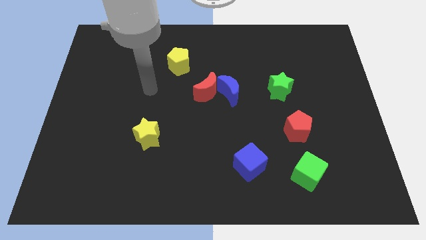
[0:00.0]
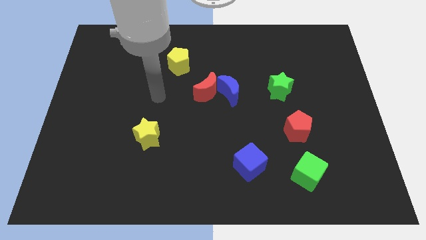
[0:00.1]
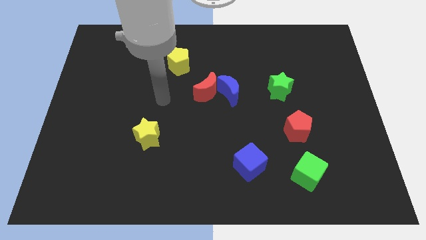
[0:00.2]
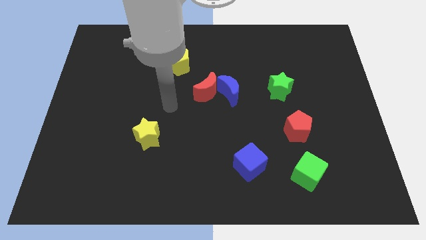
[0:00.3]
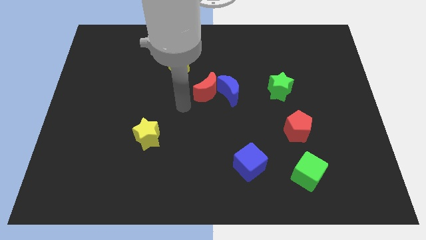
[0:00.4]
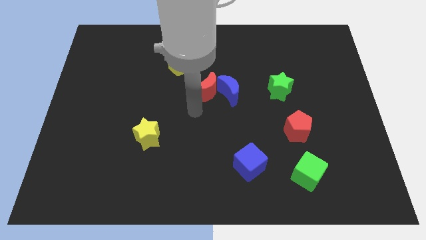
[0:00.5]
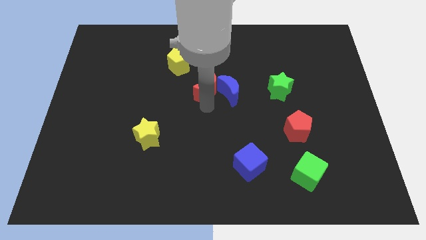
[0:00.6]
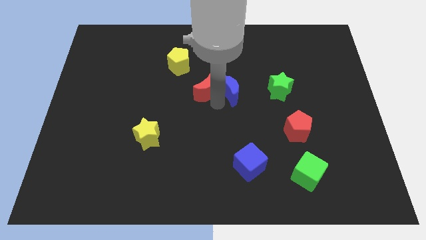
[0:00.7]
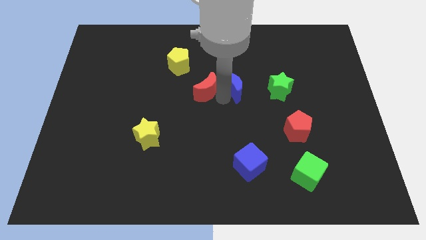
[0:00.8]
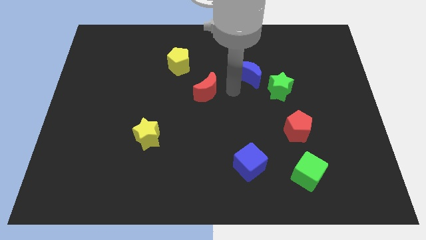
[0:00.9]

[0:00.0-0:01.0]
pull the red moon apart from the blue moon

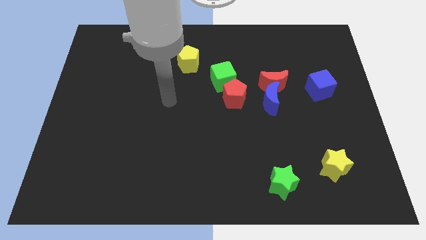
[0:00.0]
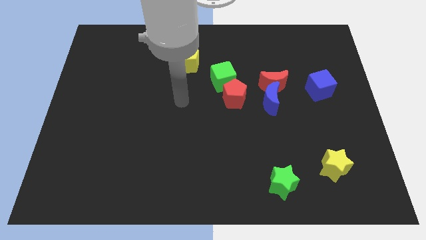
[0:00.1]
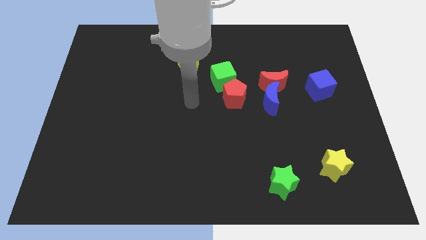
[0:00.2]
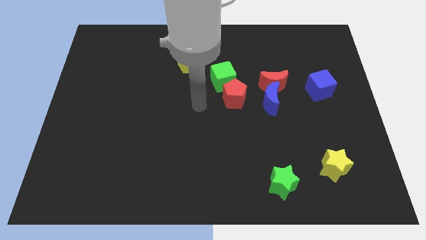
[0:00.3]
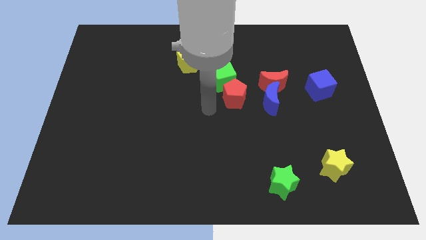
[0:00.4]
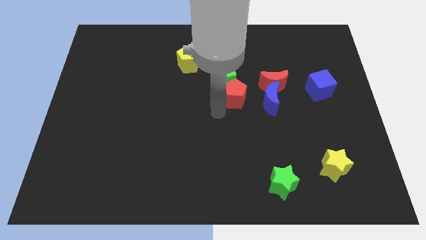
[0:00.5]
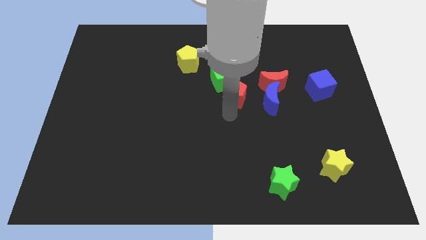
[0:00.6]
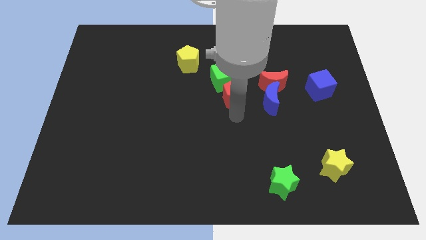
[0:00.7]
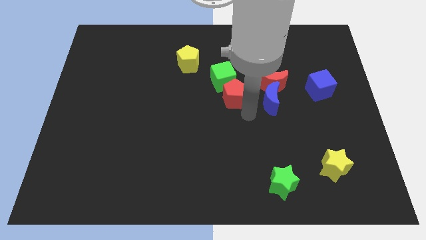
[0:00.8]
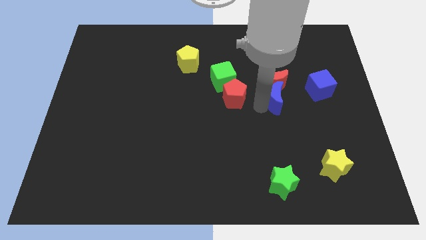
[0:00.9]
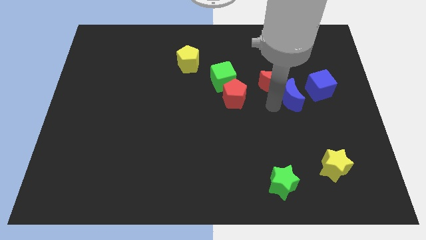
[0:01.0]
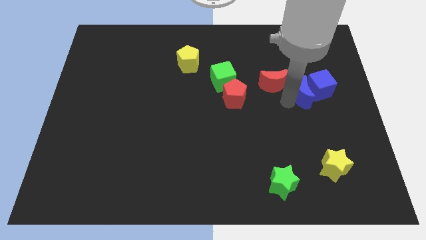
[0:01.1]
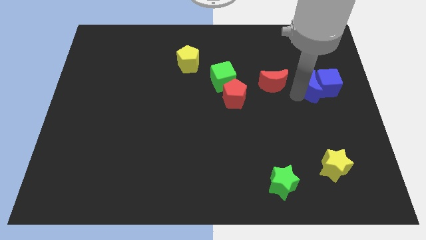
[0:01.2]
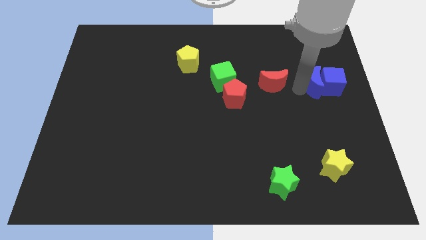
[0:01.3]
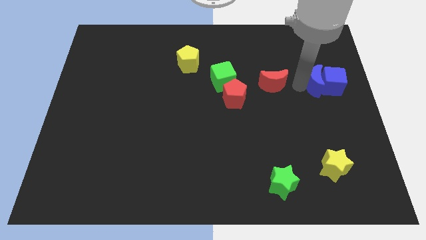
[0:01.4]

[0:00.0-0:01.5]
separate the red moon from the blue moon

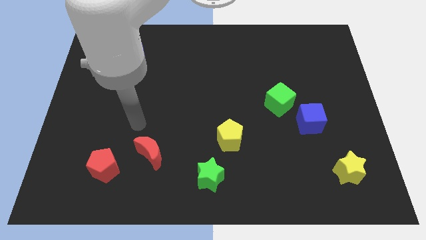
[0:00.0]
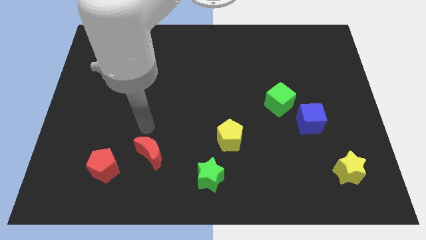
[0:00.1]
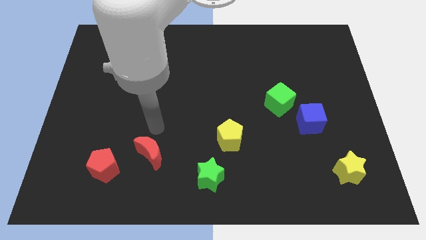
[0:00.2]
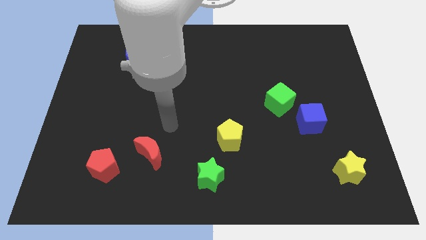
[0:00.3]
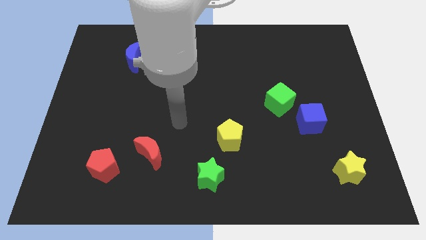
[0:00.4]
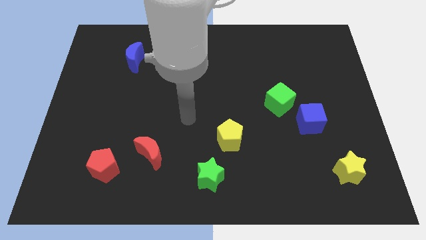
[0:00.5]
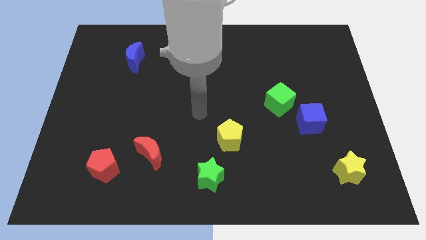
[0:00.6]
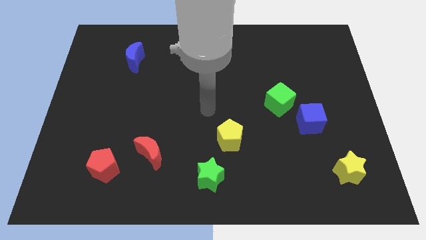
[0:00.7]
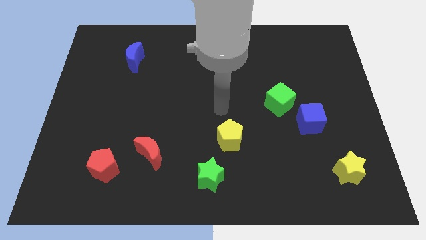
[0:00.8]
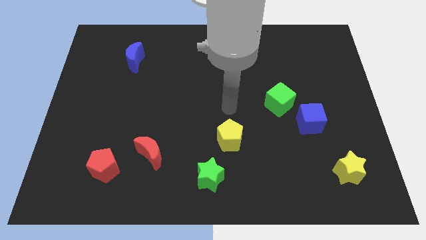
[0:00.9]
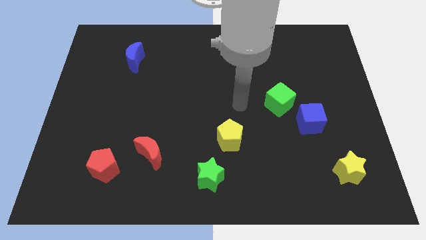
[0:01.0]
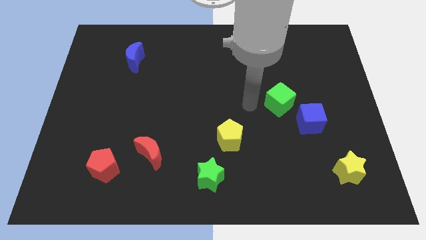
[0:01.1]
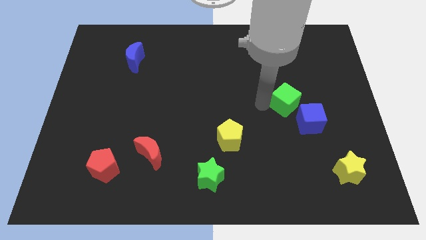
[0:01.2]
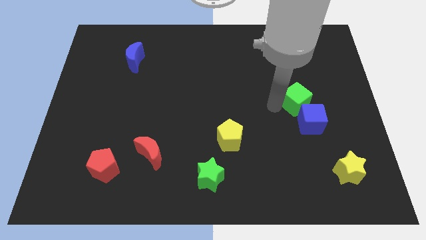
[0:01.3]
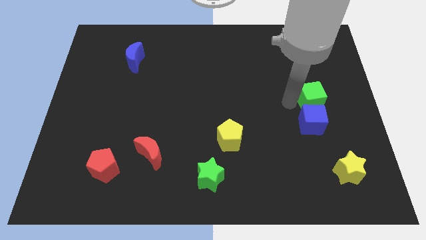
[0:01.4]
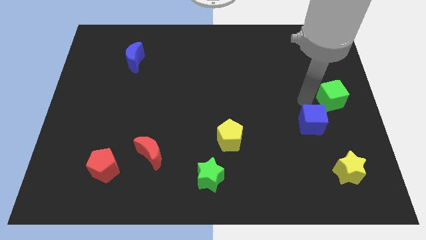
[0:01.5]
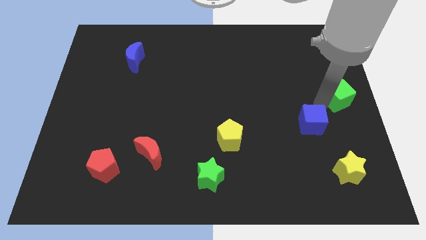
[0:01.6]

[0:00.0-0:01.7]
move the blue cube away from the green cube

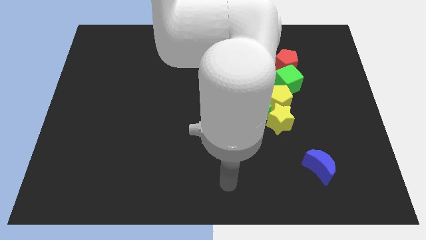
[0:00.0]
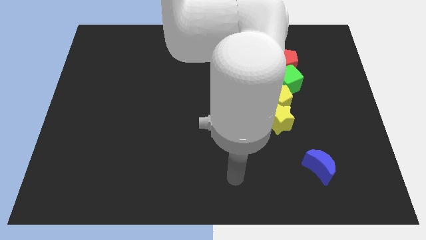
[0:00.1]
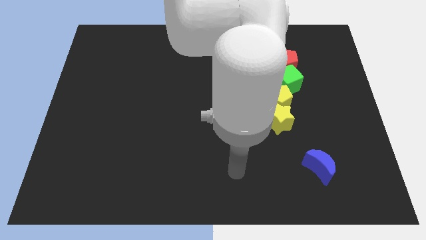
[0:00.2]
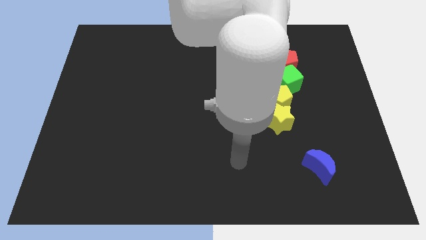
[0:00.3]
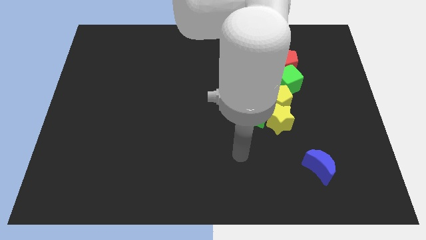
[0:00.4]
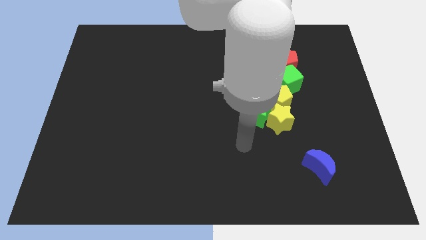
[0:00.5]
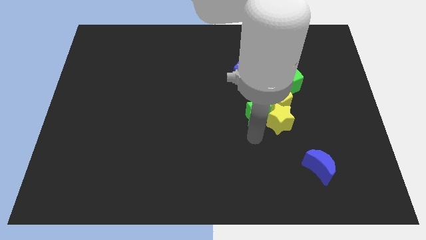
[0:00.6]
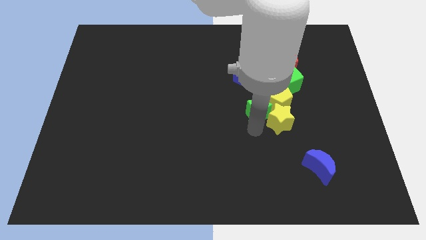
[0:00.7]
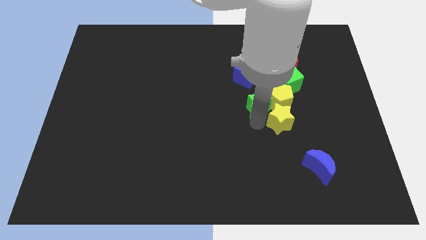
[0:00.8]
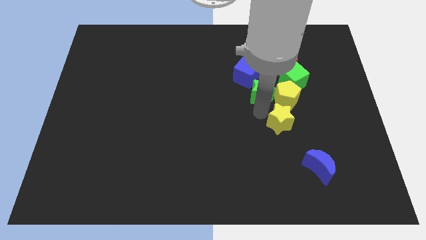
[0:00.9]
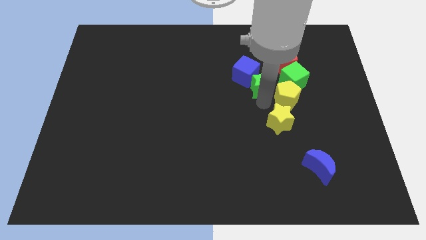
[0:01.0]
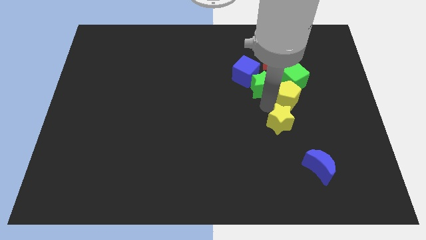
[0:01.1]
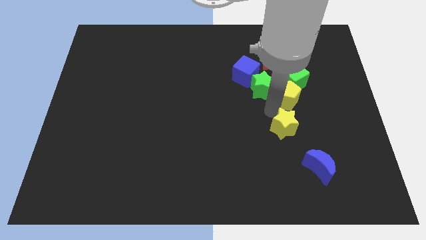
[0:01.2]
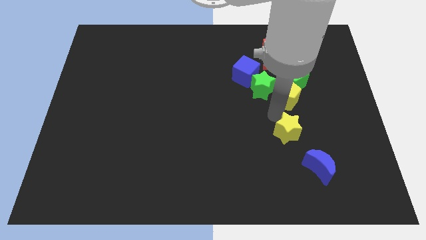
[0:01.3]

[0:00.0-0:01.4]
move the yellow star away from the green star and yellow pentagon

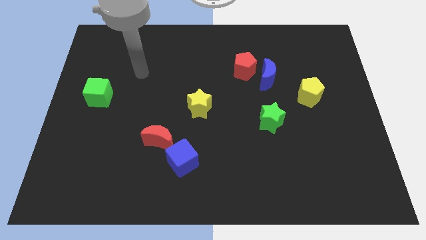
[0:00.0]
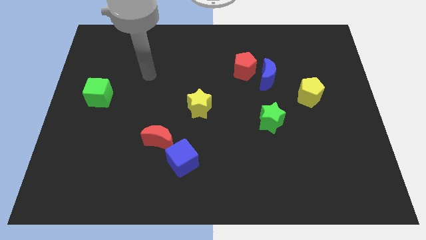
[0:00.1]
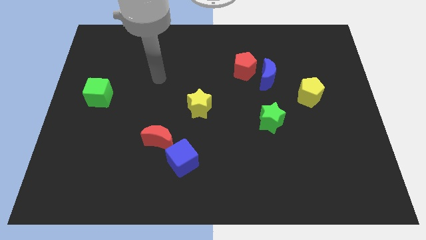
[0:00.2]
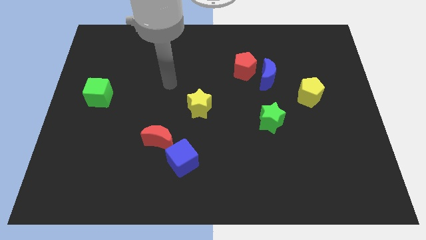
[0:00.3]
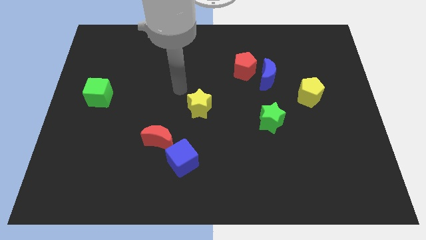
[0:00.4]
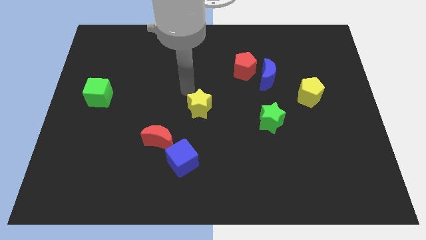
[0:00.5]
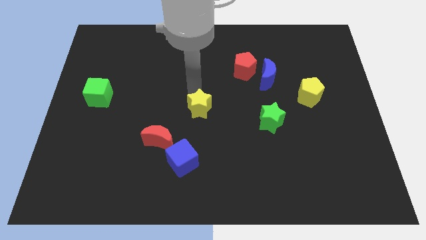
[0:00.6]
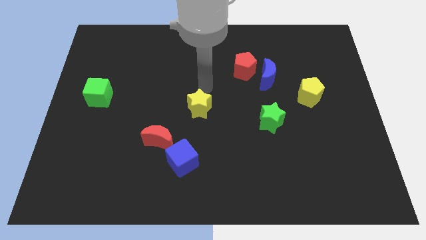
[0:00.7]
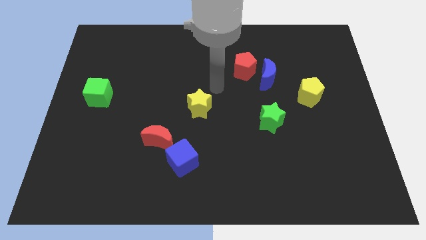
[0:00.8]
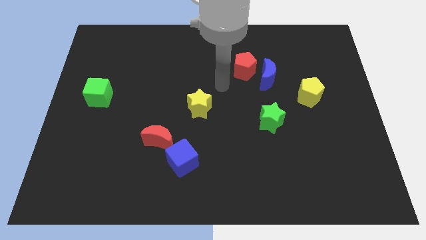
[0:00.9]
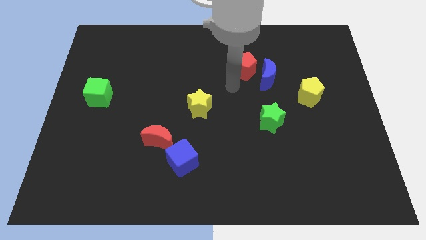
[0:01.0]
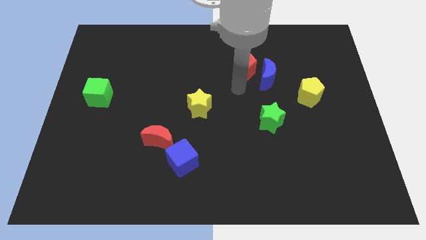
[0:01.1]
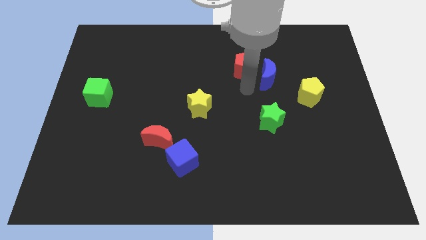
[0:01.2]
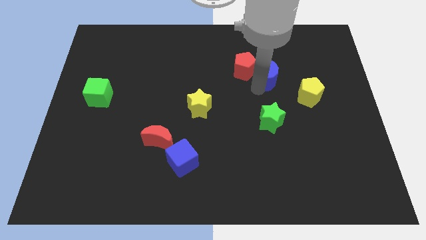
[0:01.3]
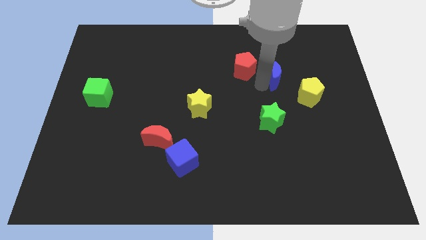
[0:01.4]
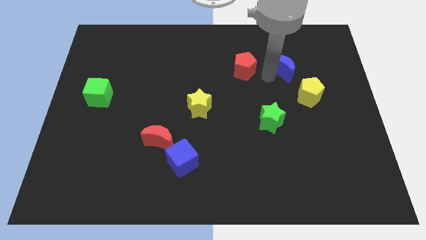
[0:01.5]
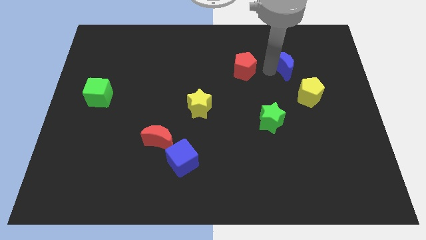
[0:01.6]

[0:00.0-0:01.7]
move the red pentagon away from the blue moon

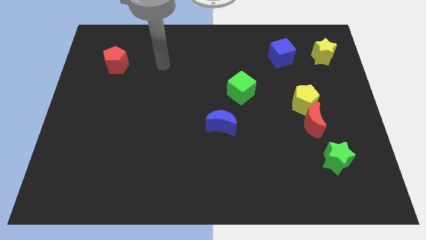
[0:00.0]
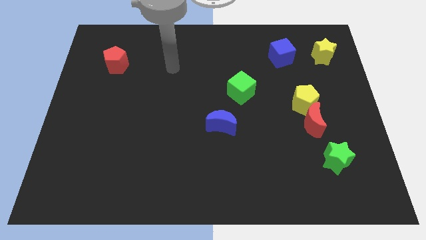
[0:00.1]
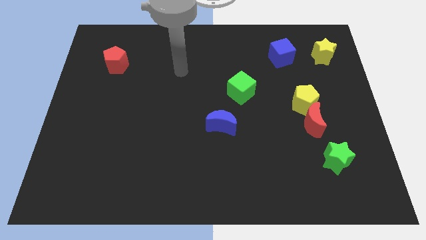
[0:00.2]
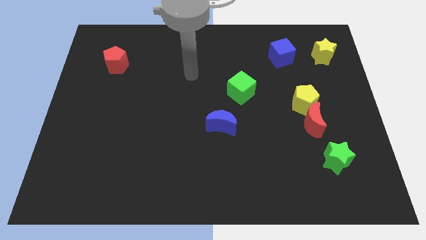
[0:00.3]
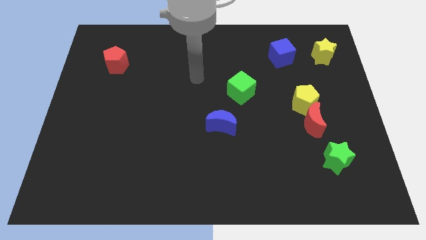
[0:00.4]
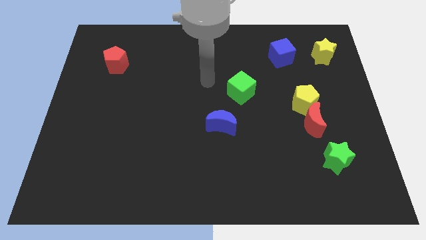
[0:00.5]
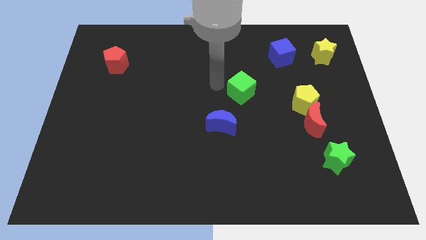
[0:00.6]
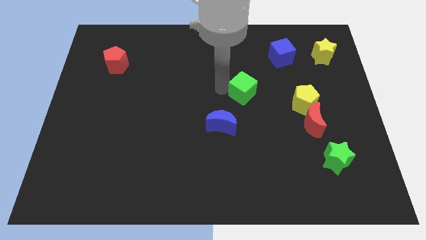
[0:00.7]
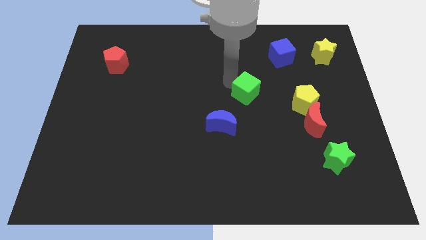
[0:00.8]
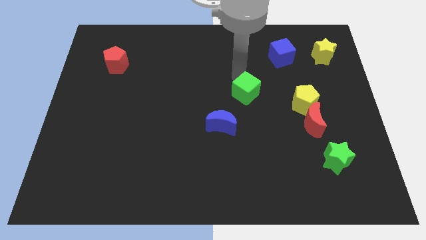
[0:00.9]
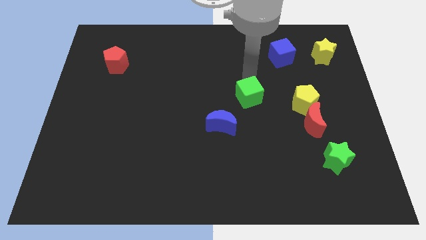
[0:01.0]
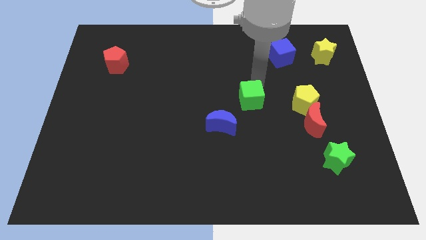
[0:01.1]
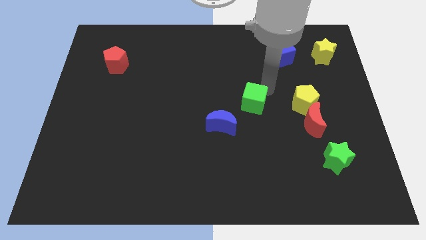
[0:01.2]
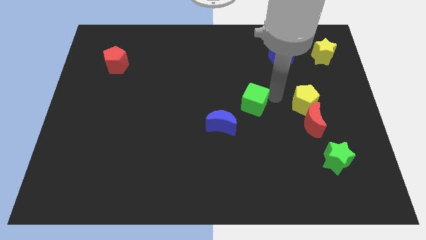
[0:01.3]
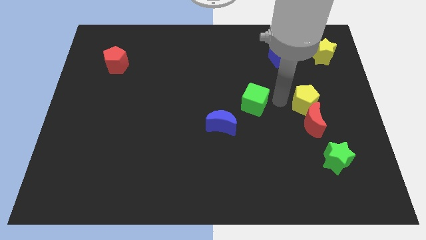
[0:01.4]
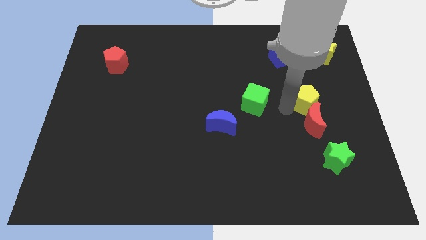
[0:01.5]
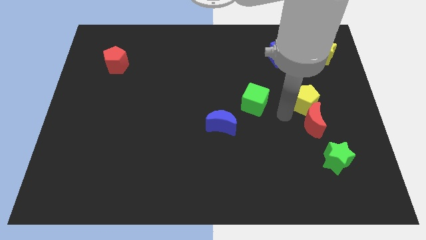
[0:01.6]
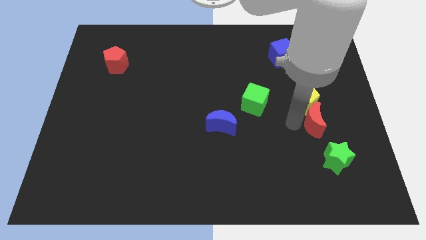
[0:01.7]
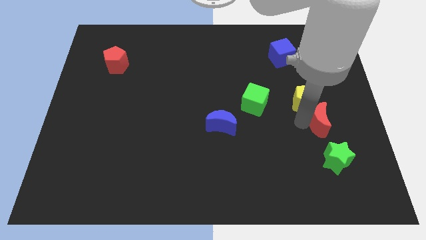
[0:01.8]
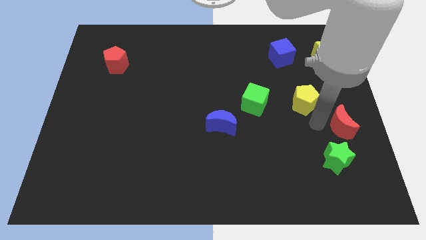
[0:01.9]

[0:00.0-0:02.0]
pull the yellow pentagon apart from the red moon
